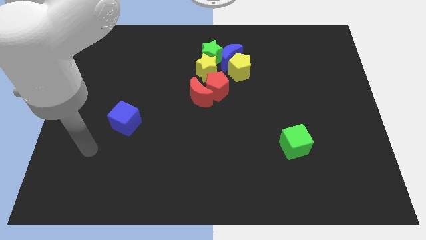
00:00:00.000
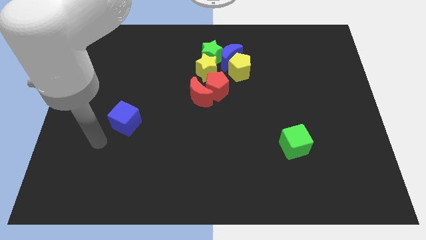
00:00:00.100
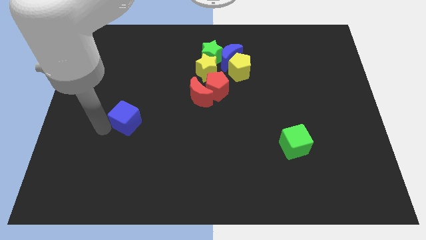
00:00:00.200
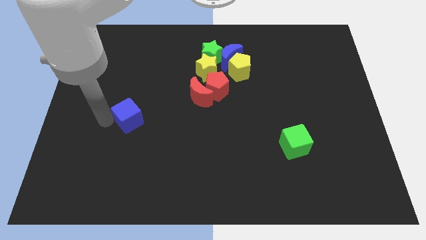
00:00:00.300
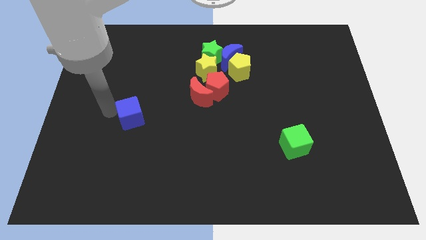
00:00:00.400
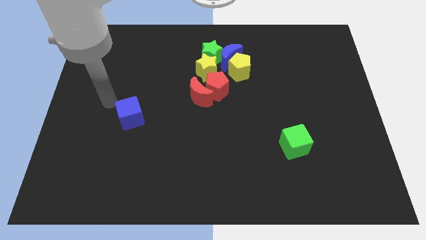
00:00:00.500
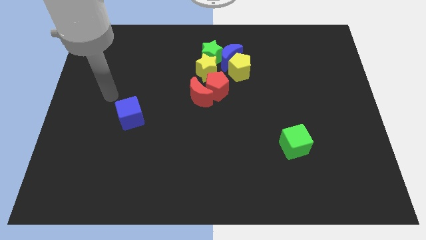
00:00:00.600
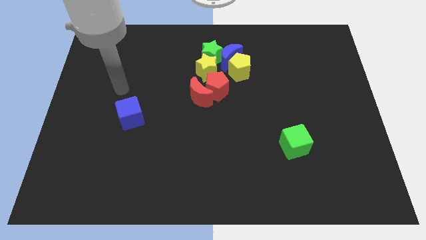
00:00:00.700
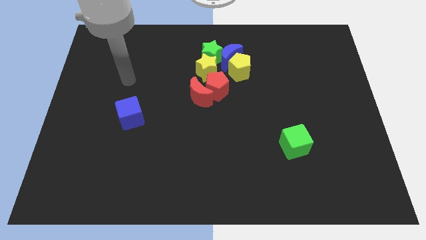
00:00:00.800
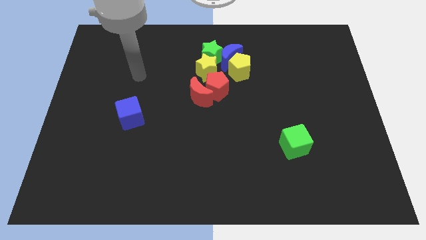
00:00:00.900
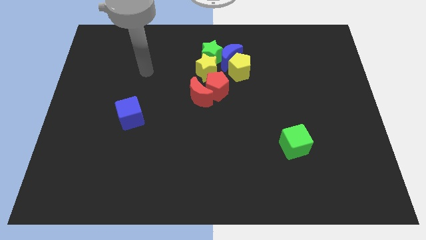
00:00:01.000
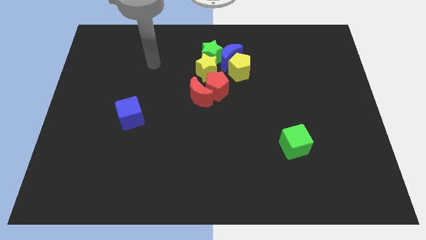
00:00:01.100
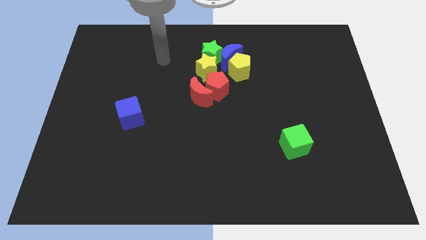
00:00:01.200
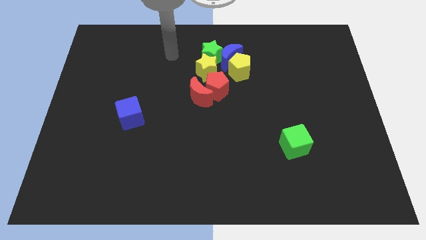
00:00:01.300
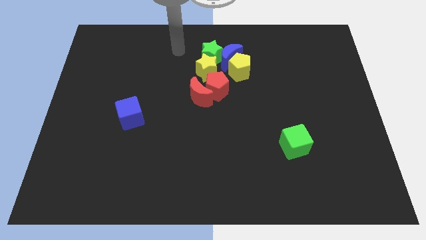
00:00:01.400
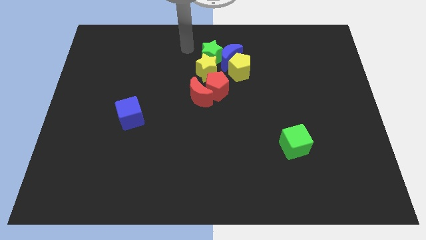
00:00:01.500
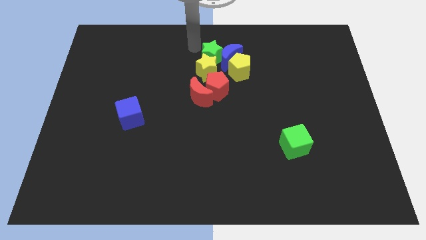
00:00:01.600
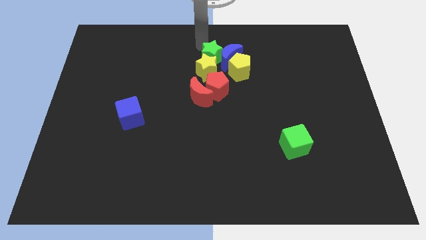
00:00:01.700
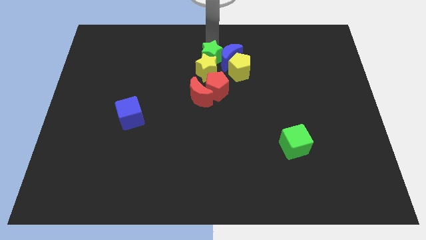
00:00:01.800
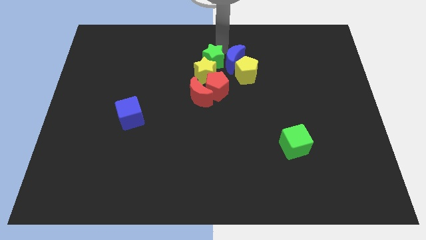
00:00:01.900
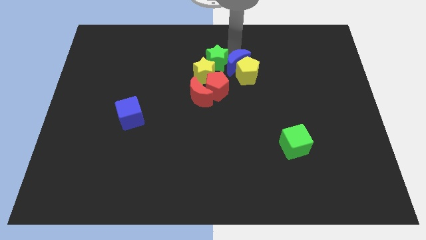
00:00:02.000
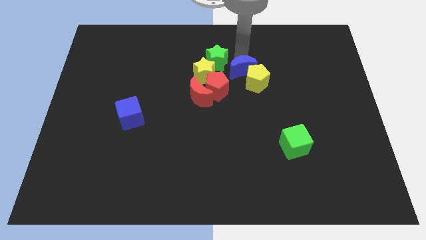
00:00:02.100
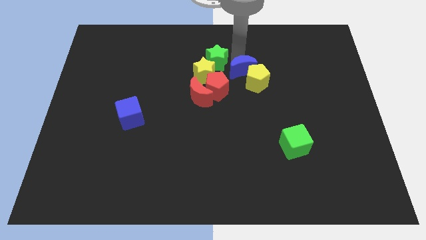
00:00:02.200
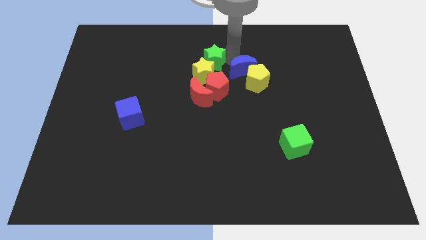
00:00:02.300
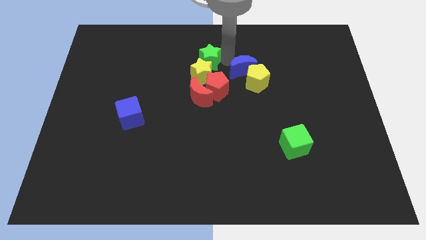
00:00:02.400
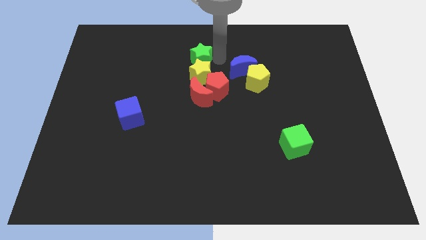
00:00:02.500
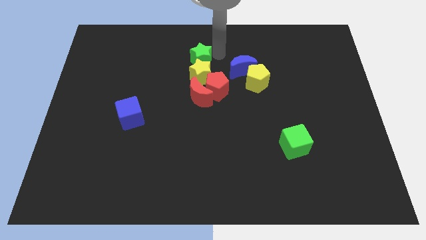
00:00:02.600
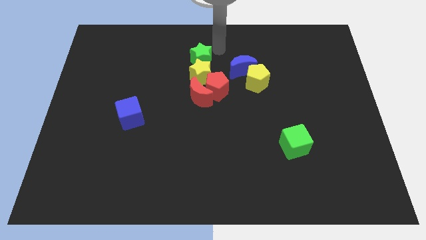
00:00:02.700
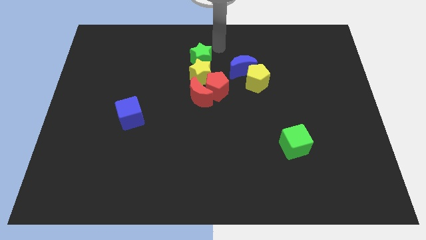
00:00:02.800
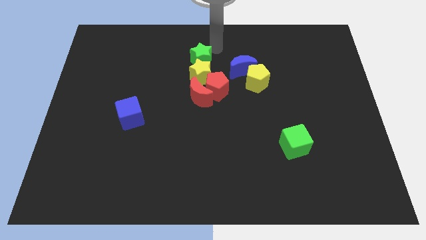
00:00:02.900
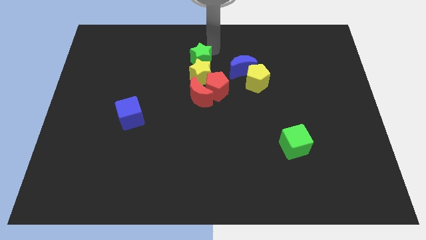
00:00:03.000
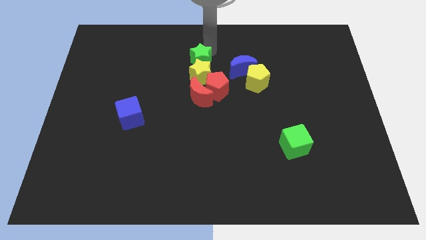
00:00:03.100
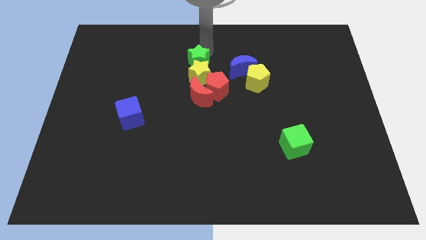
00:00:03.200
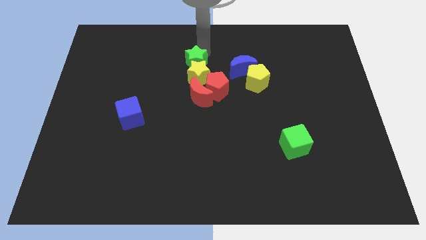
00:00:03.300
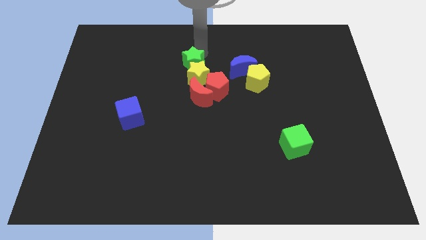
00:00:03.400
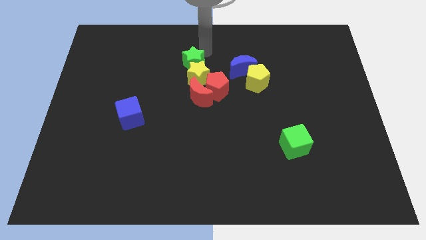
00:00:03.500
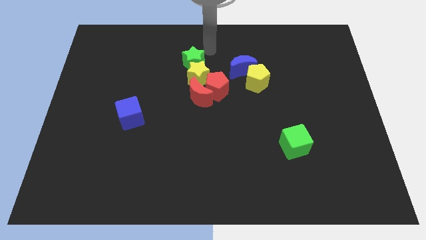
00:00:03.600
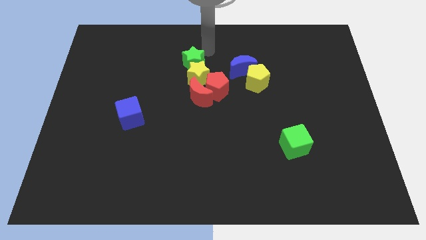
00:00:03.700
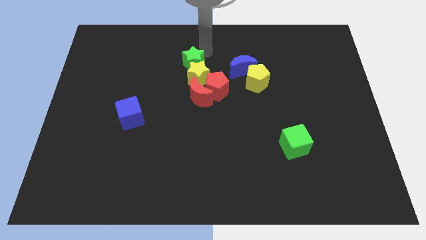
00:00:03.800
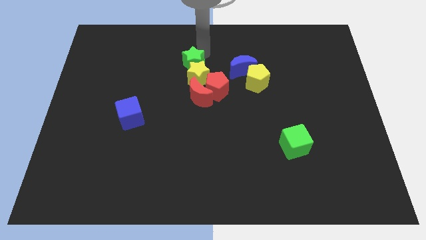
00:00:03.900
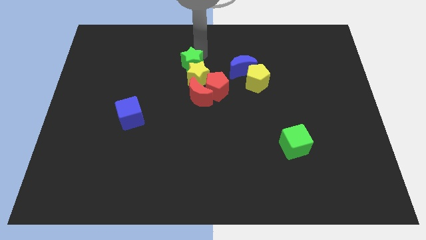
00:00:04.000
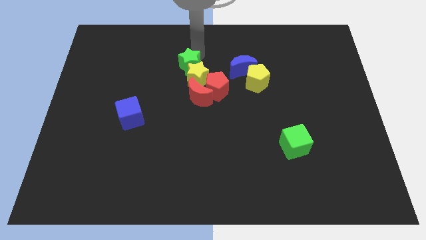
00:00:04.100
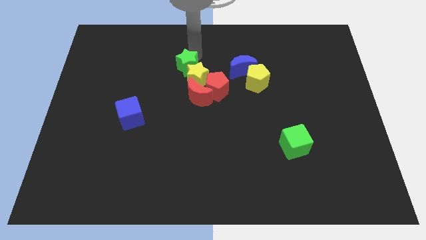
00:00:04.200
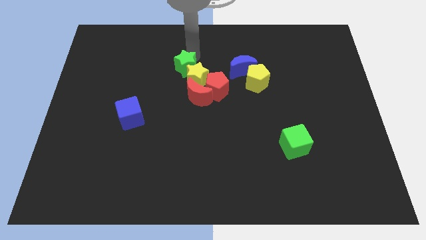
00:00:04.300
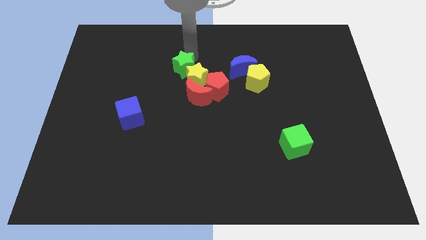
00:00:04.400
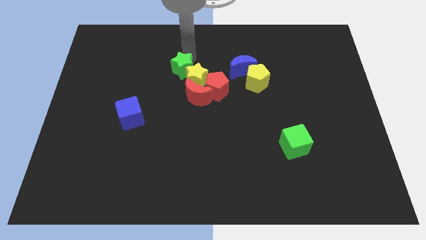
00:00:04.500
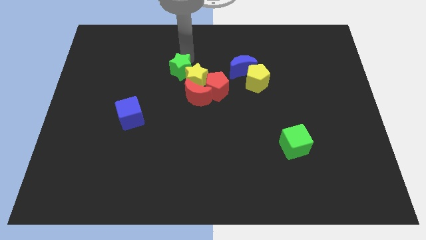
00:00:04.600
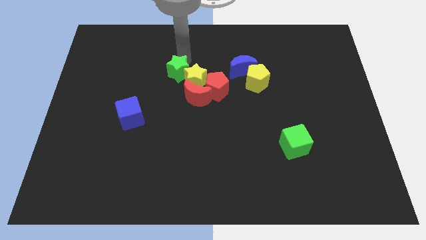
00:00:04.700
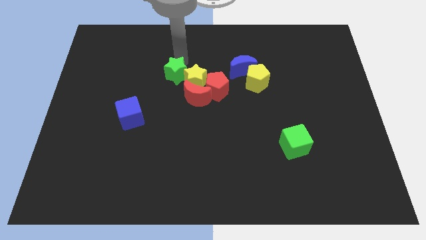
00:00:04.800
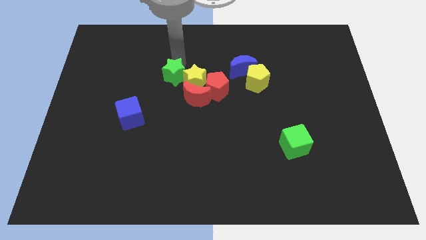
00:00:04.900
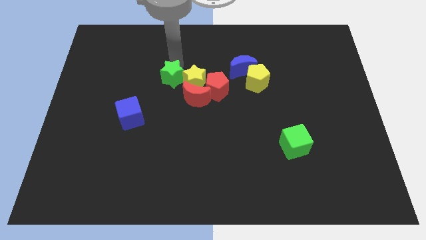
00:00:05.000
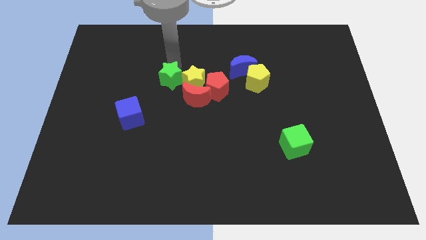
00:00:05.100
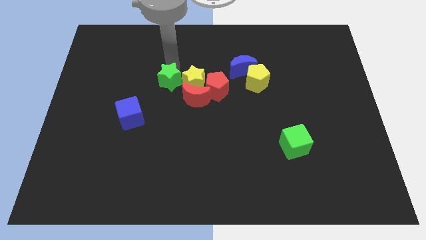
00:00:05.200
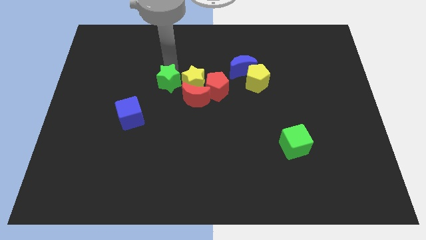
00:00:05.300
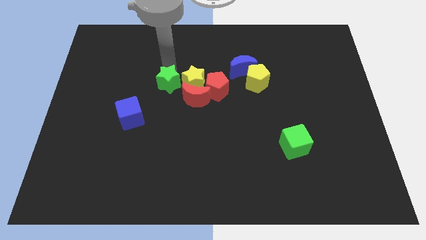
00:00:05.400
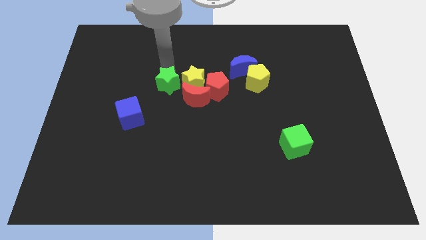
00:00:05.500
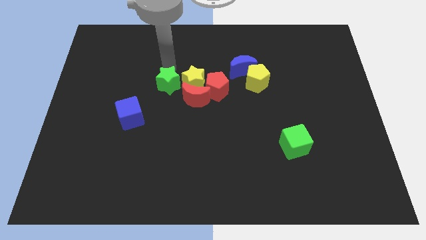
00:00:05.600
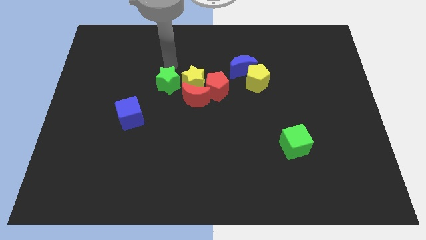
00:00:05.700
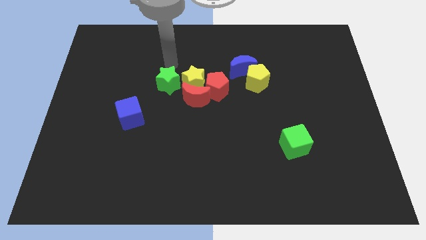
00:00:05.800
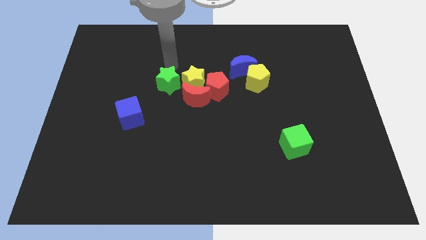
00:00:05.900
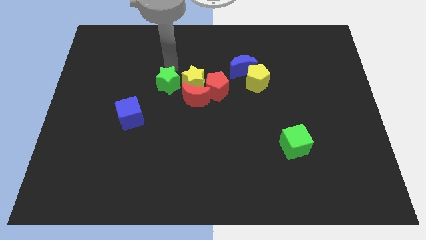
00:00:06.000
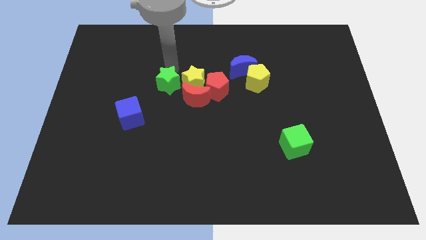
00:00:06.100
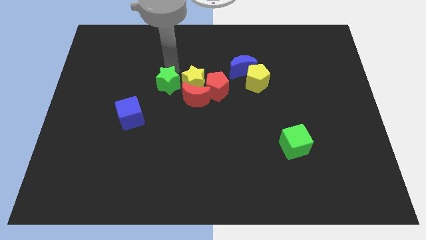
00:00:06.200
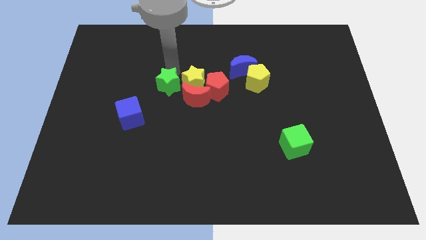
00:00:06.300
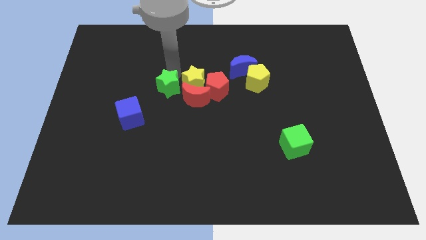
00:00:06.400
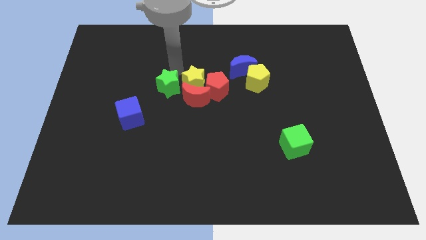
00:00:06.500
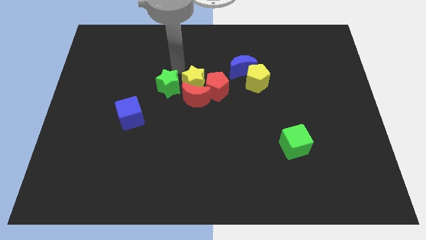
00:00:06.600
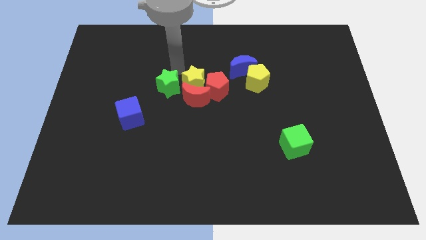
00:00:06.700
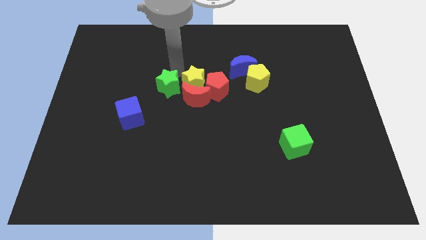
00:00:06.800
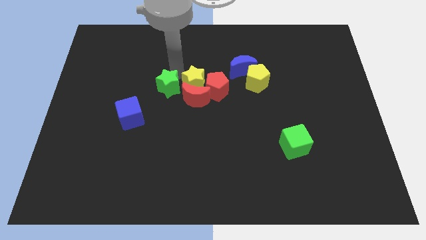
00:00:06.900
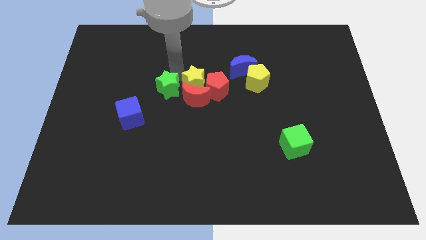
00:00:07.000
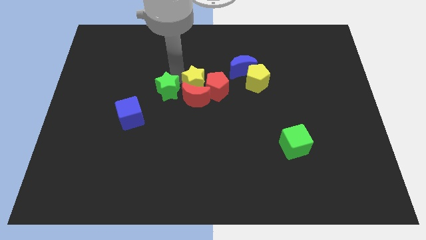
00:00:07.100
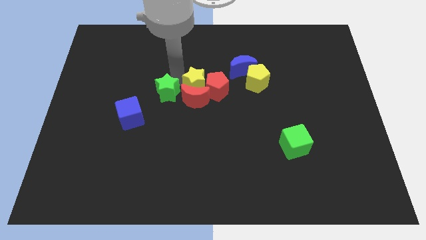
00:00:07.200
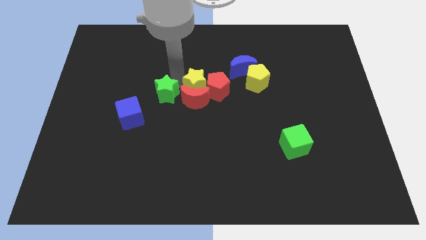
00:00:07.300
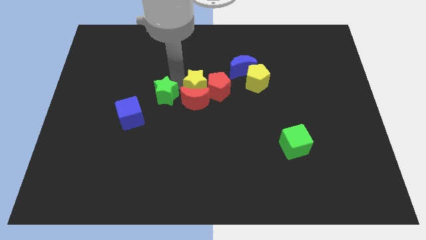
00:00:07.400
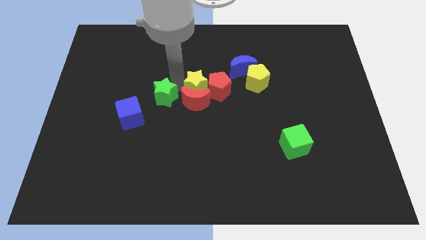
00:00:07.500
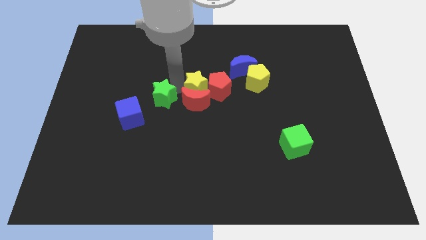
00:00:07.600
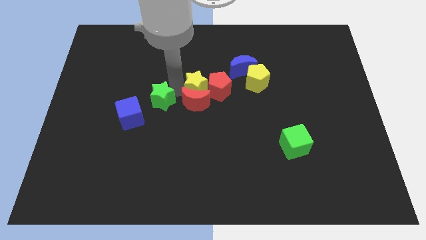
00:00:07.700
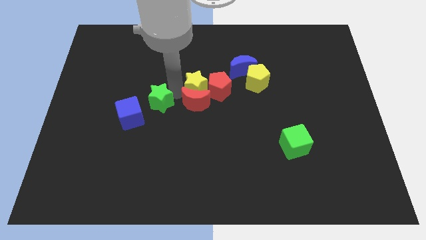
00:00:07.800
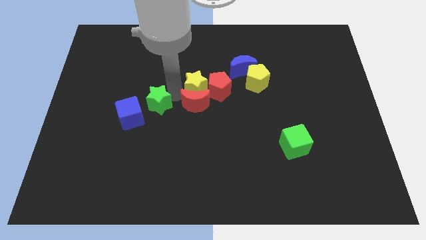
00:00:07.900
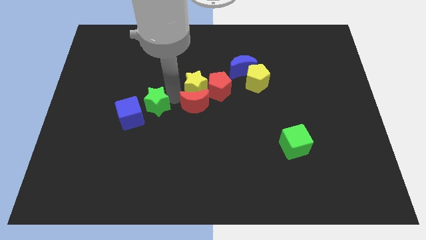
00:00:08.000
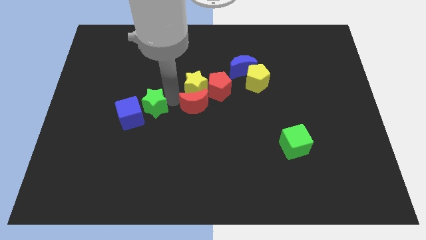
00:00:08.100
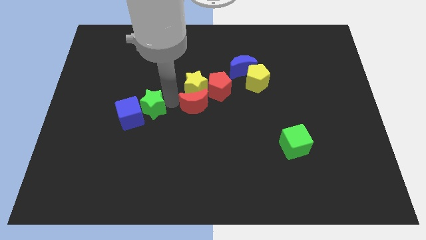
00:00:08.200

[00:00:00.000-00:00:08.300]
put the green star to the blue cube
